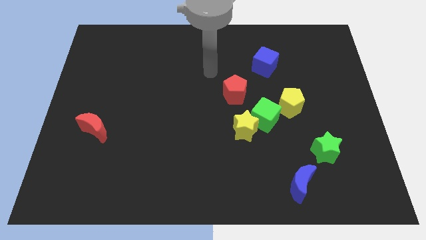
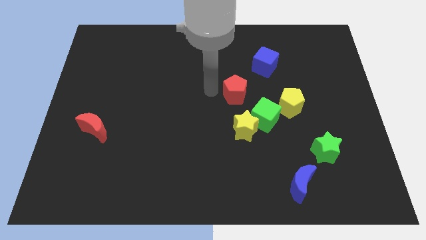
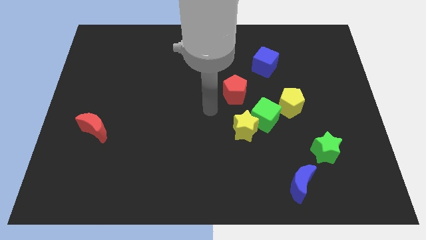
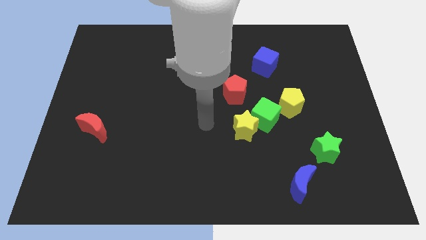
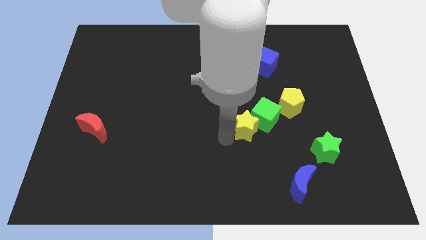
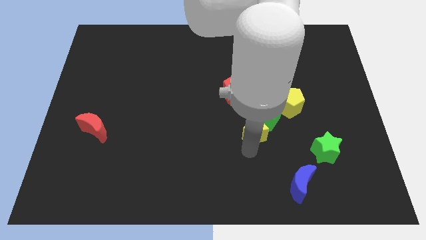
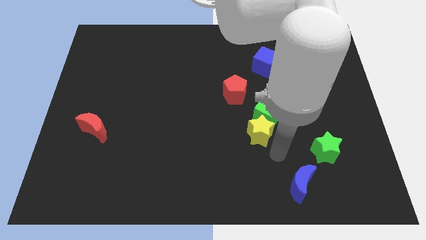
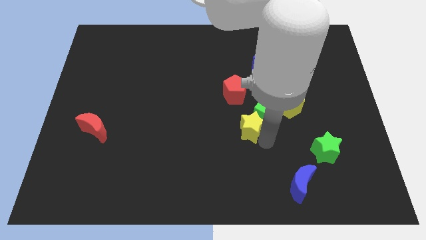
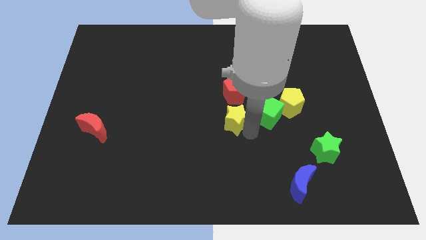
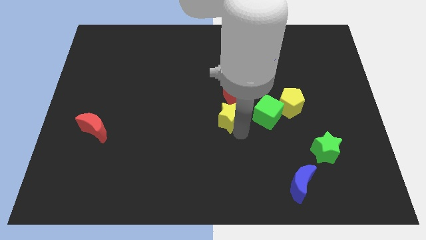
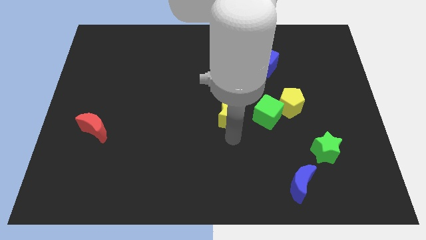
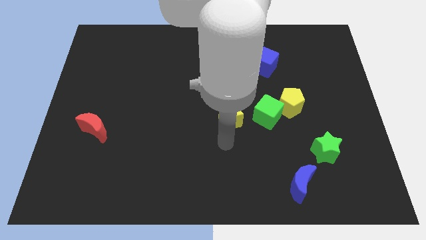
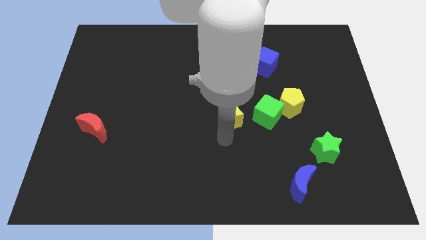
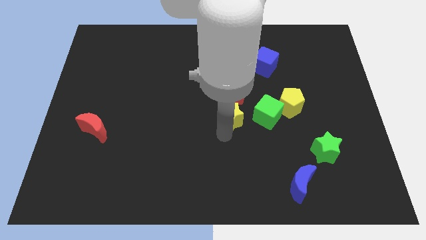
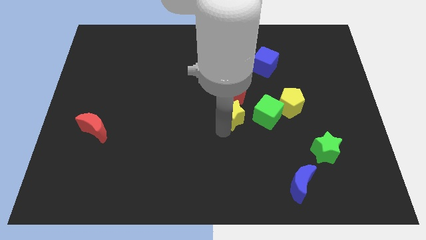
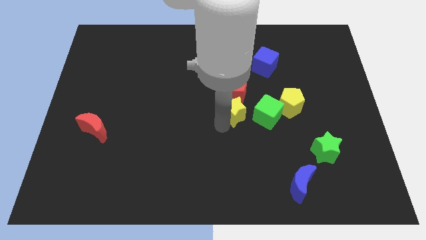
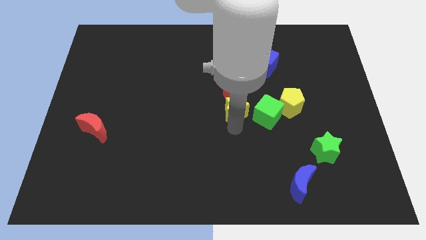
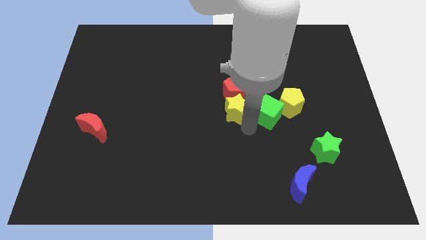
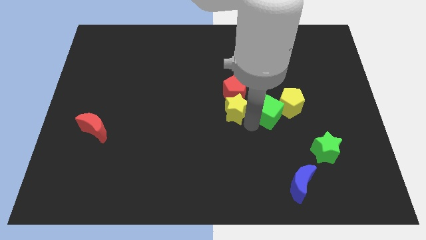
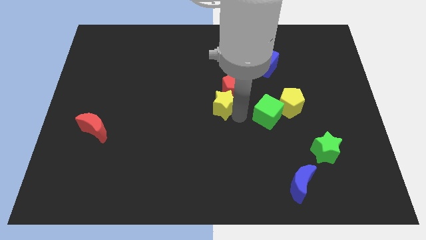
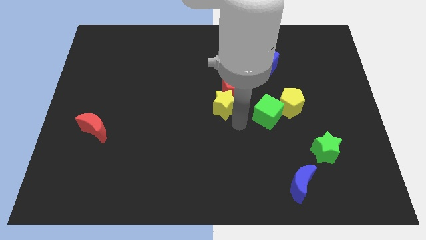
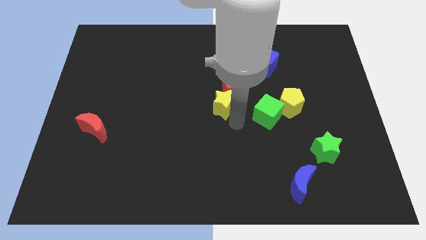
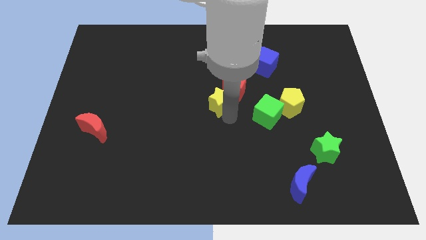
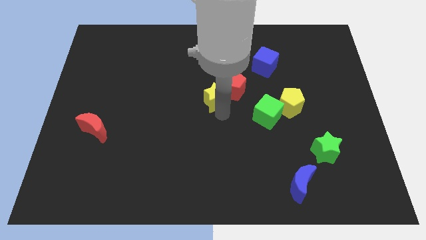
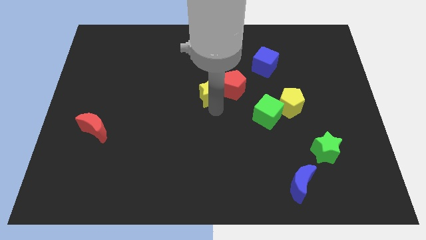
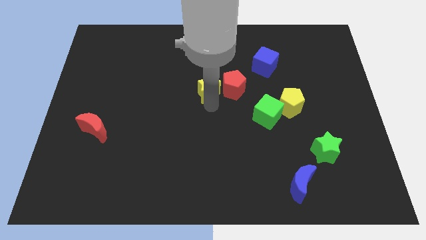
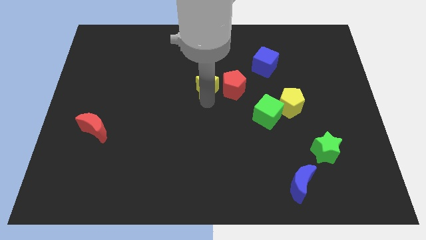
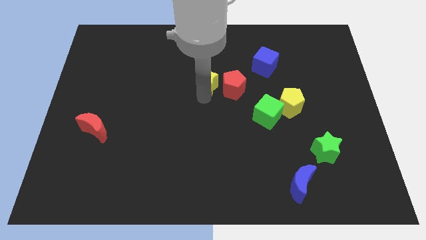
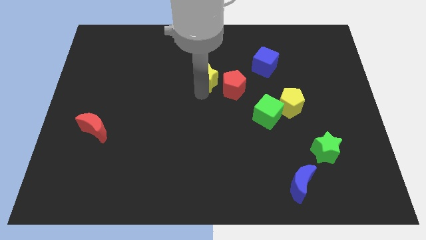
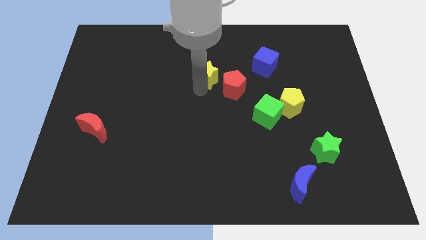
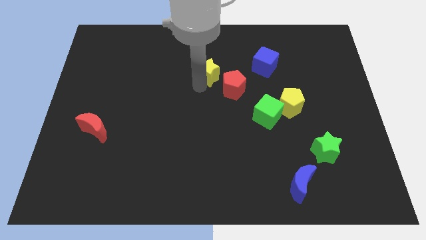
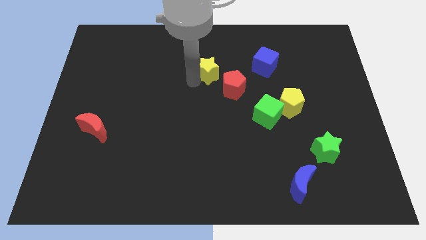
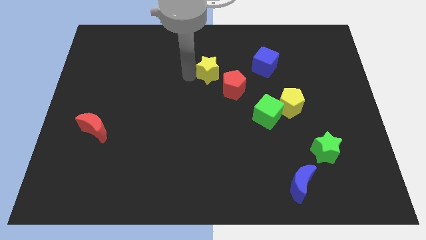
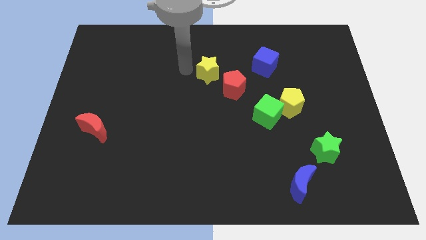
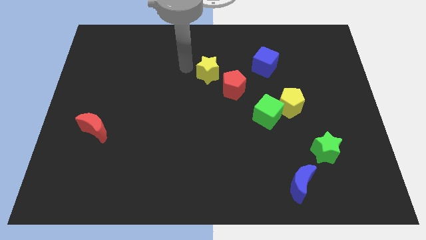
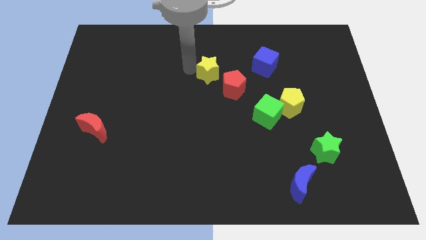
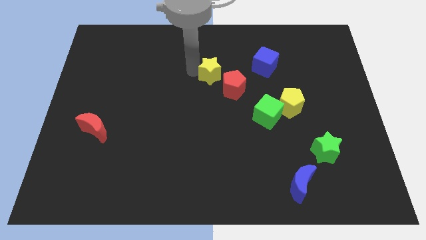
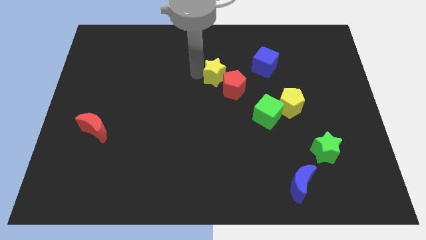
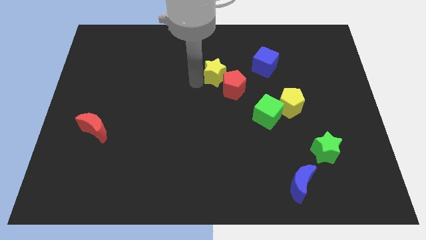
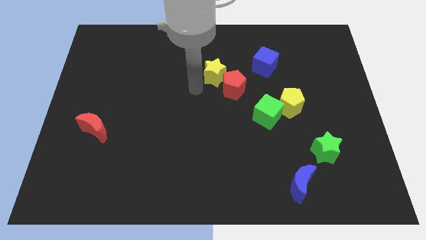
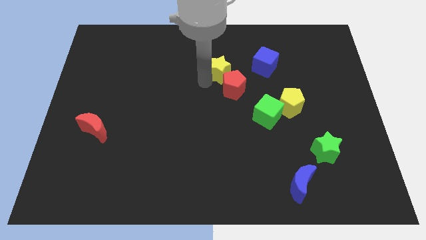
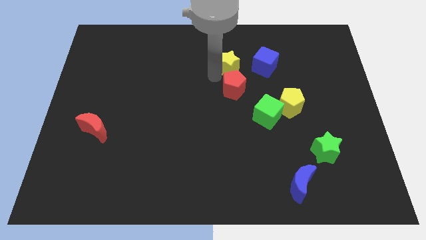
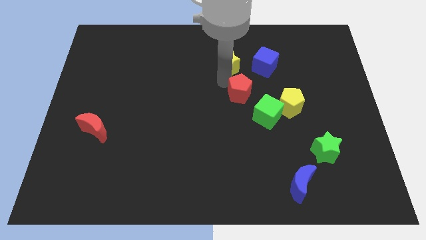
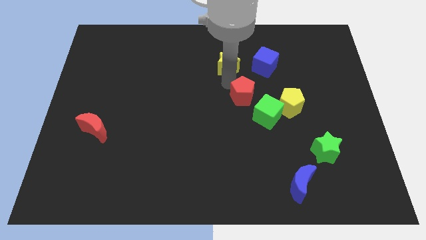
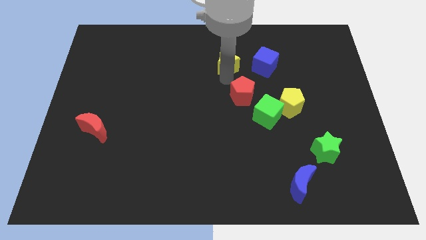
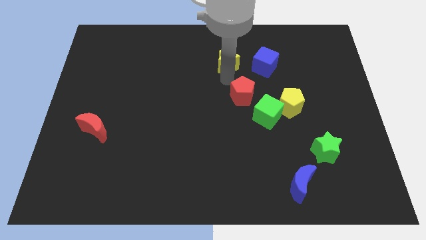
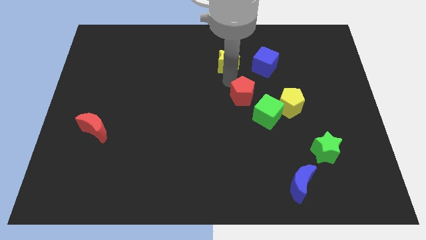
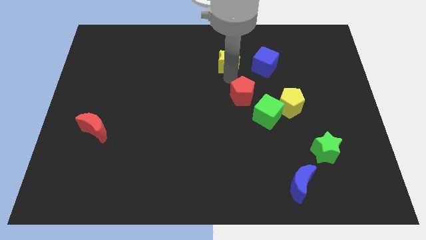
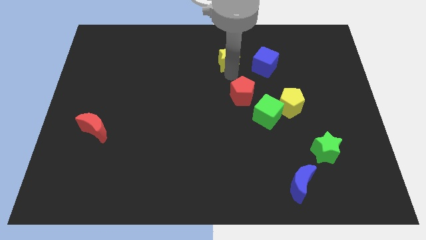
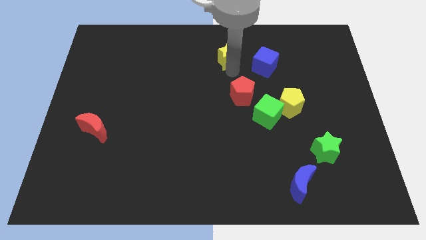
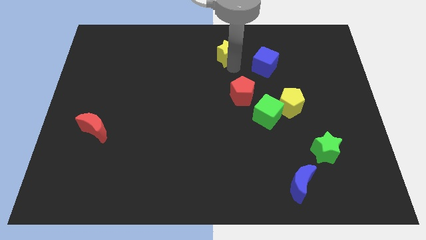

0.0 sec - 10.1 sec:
slide the yellow star to the towards your base

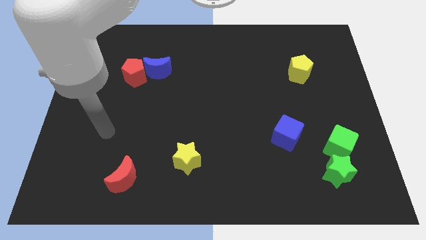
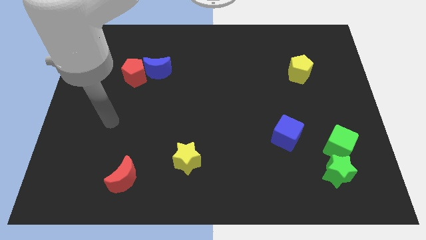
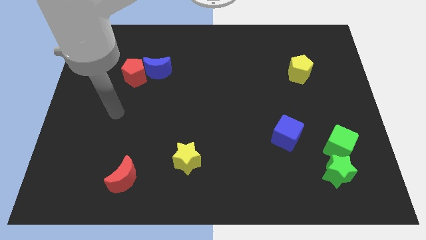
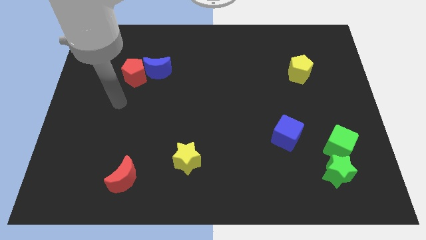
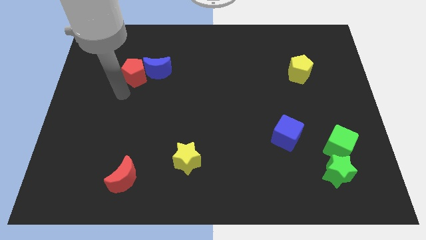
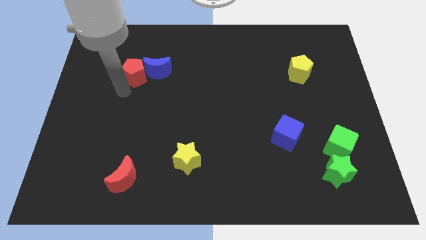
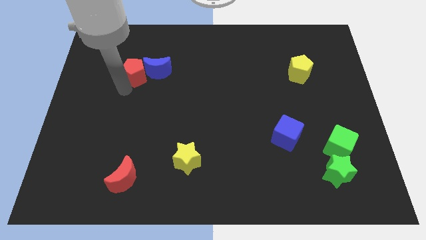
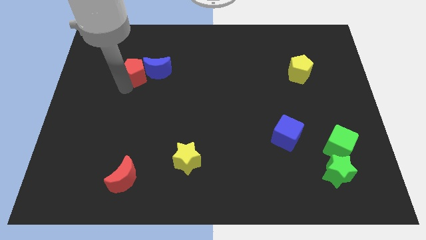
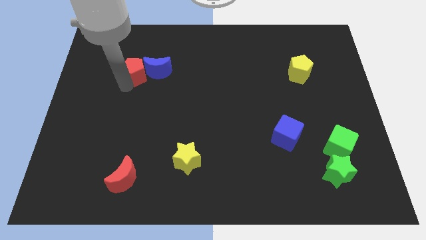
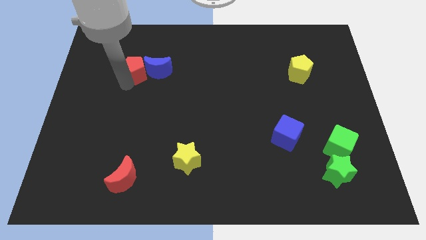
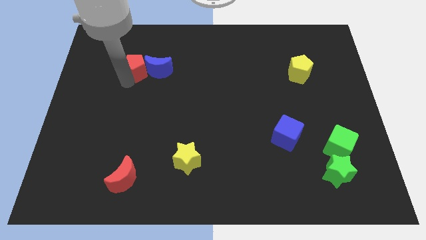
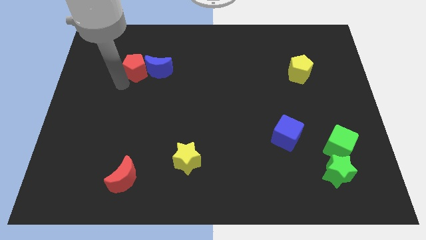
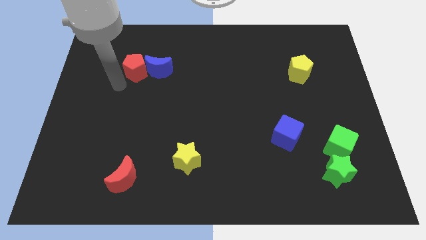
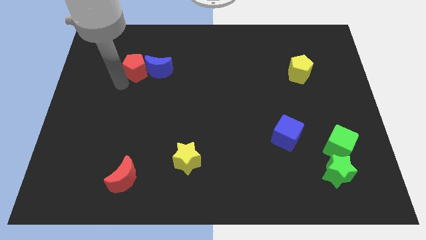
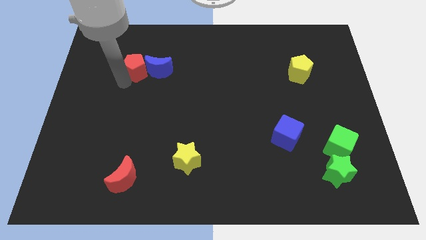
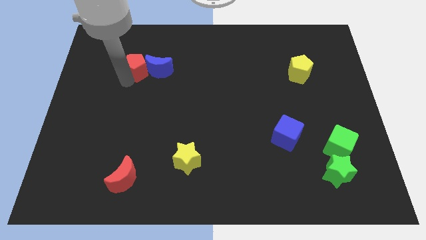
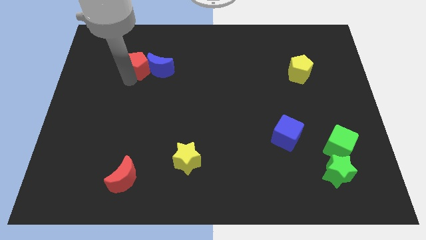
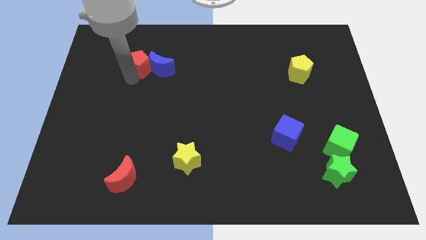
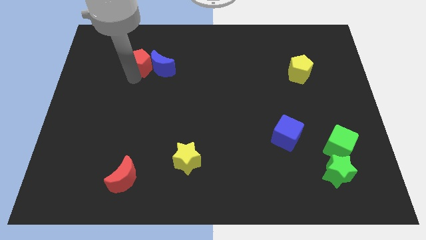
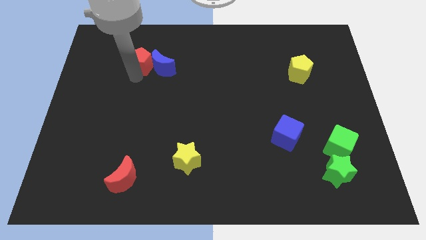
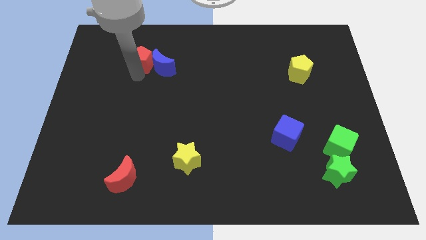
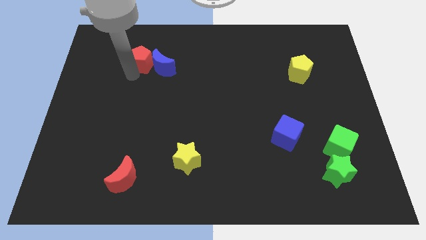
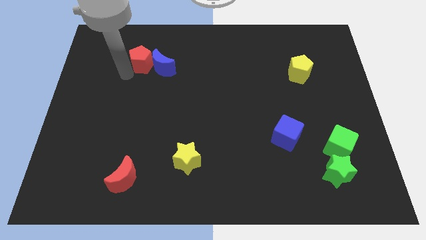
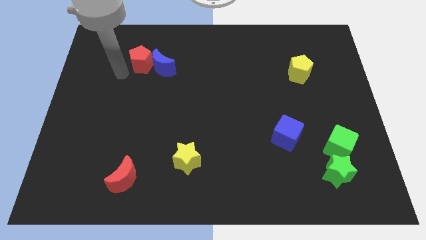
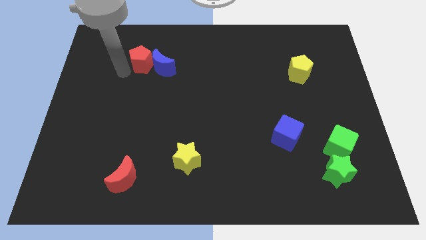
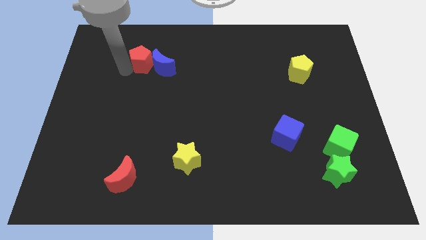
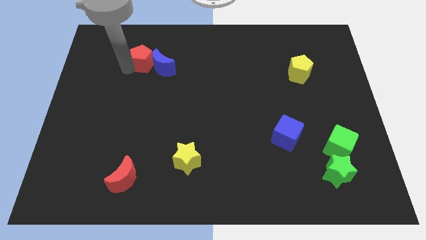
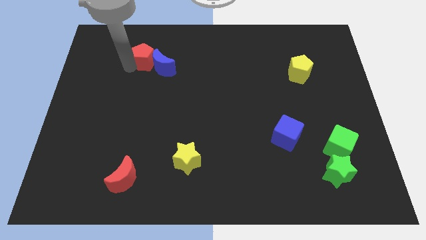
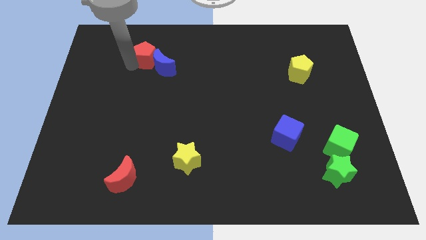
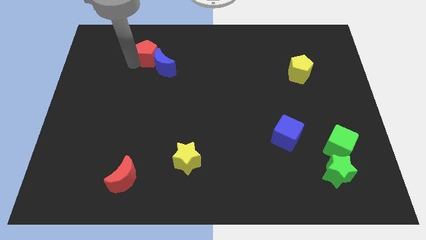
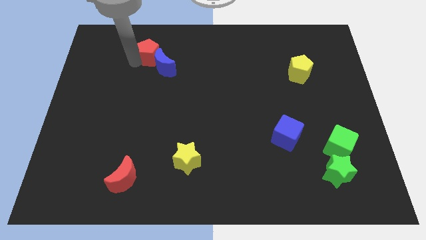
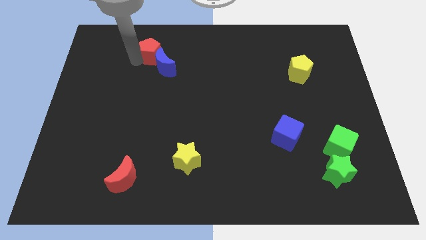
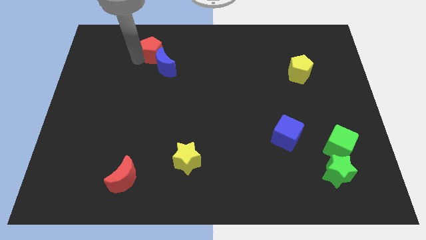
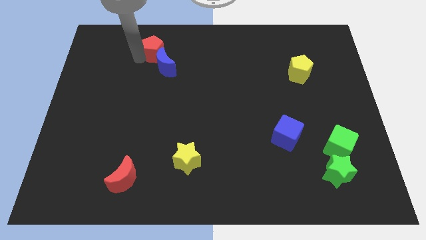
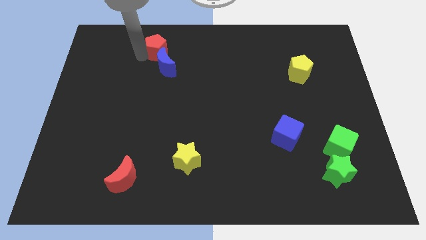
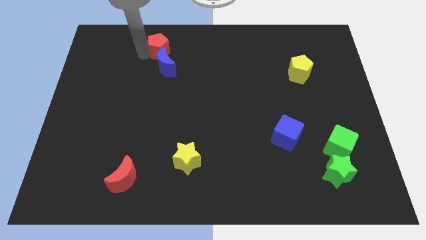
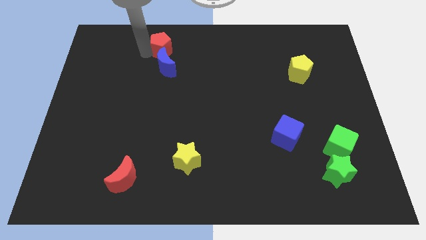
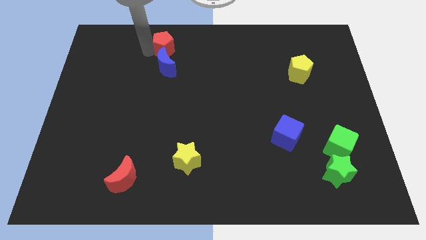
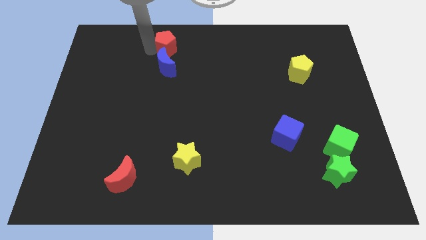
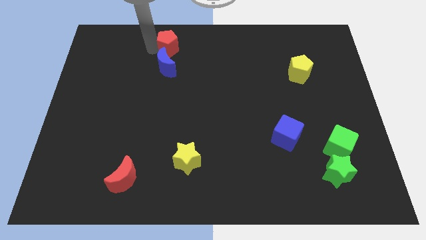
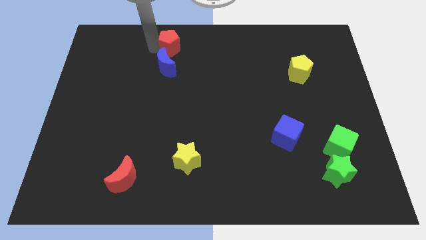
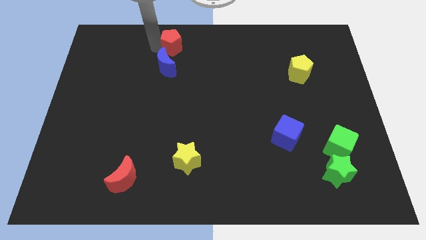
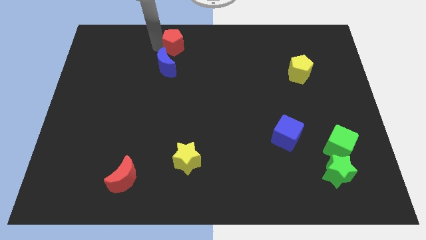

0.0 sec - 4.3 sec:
push the red pentagon to the top side
